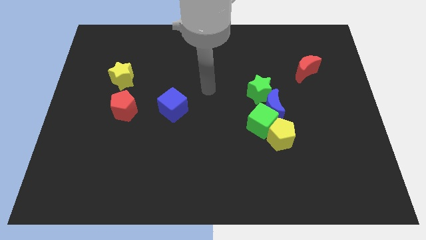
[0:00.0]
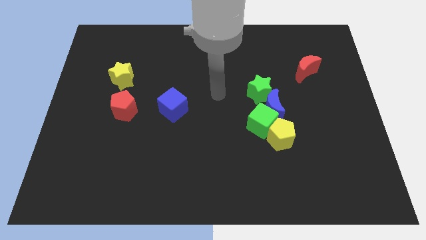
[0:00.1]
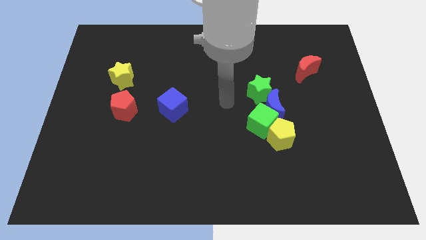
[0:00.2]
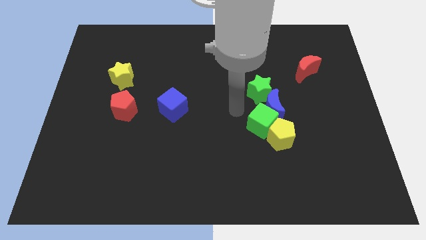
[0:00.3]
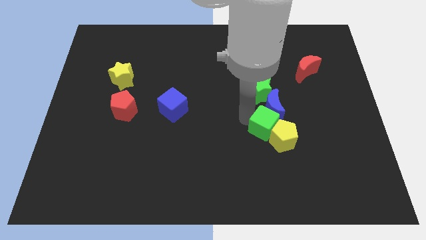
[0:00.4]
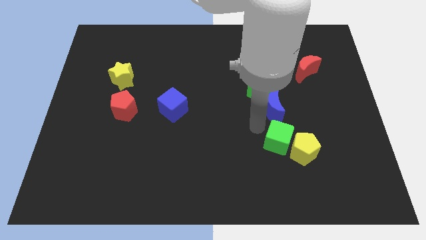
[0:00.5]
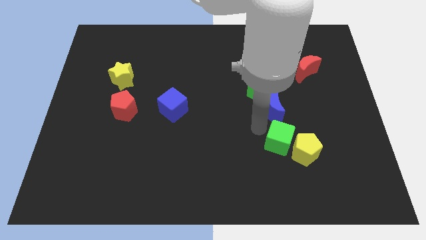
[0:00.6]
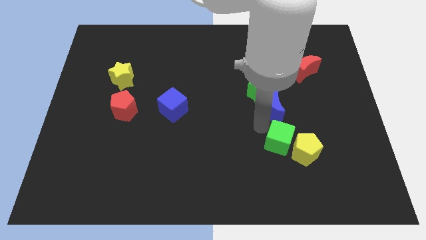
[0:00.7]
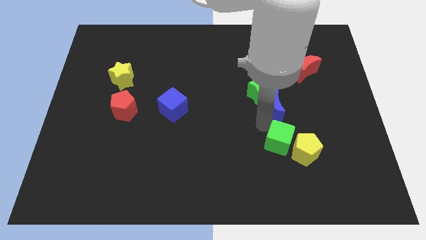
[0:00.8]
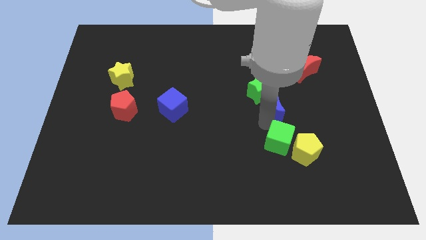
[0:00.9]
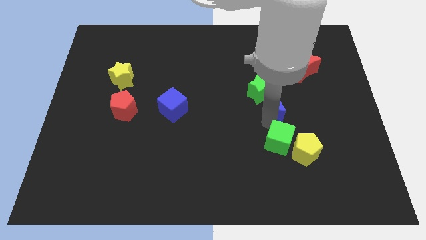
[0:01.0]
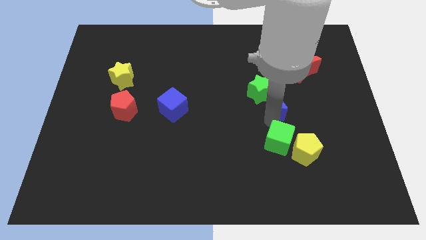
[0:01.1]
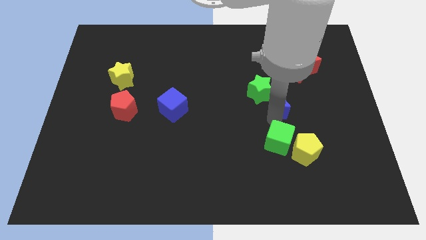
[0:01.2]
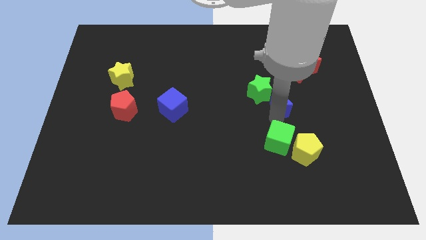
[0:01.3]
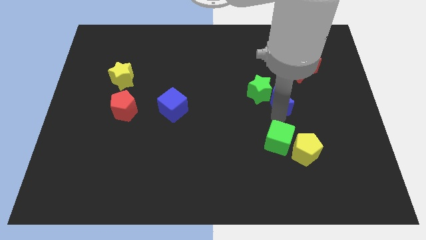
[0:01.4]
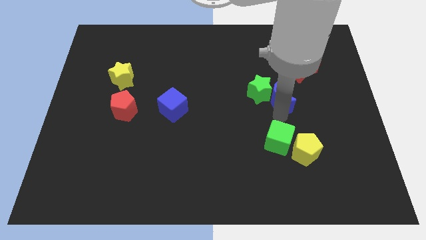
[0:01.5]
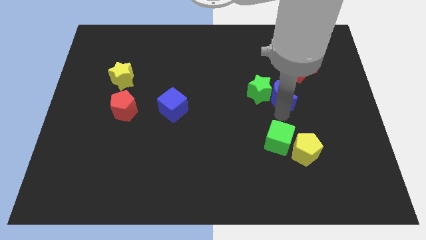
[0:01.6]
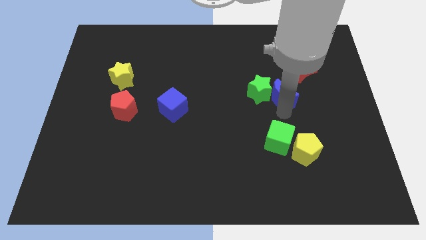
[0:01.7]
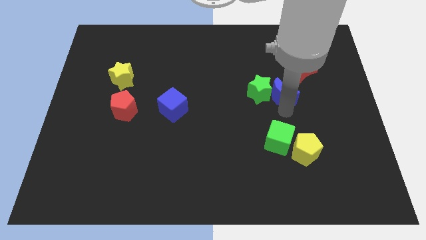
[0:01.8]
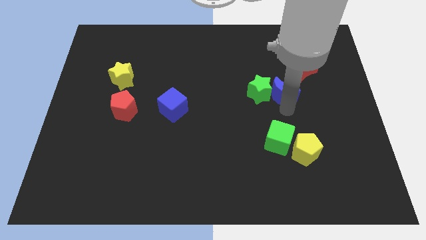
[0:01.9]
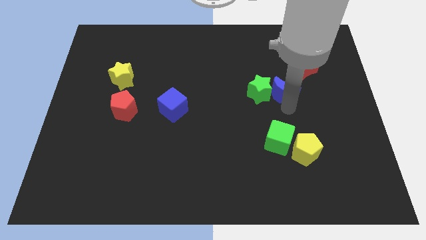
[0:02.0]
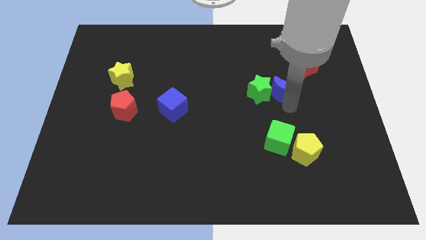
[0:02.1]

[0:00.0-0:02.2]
pull the blue moon apart from the green cube, green star, and yellow pentagon

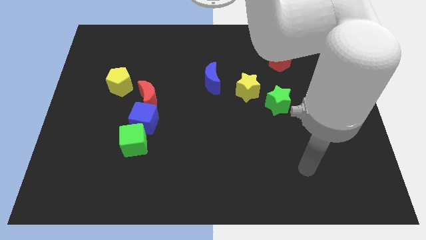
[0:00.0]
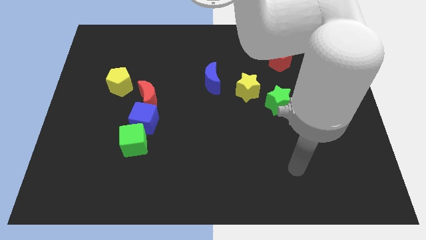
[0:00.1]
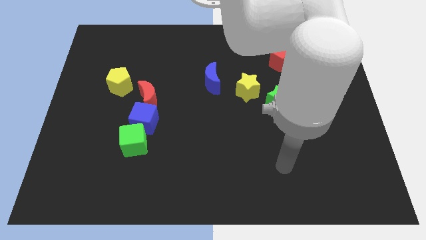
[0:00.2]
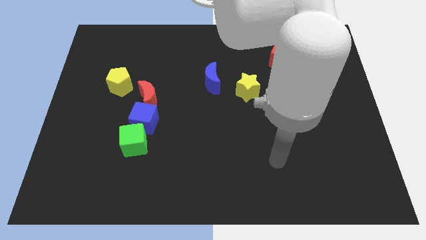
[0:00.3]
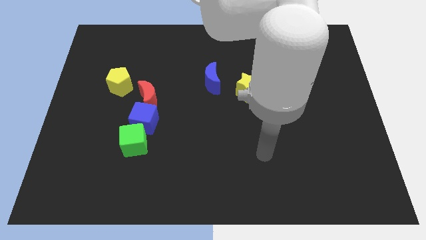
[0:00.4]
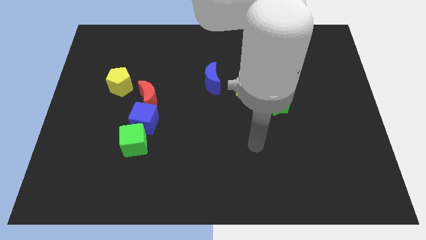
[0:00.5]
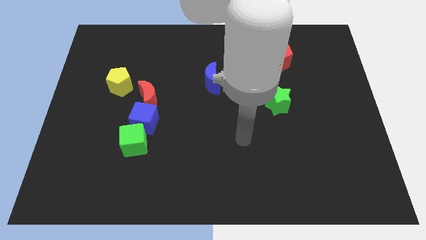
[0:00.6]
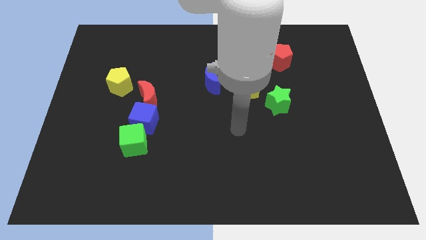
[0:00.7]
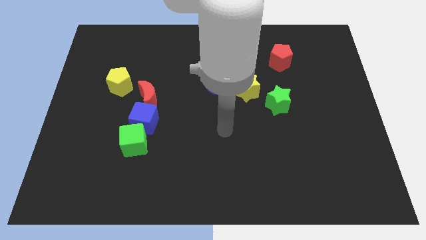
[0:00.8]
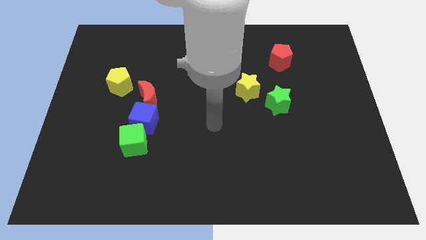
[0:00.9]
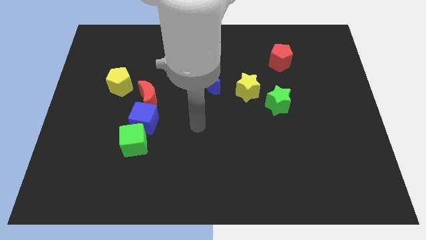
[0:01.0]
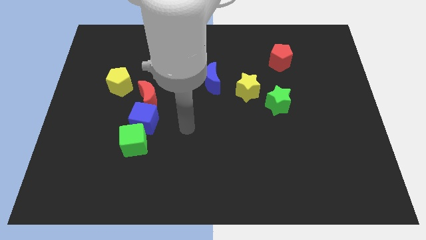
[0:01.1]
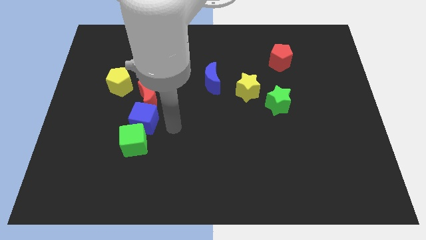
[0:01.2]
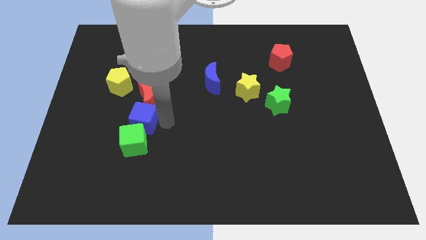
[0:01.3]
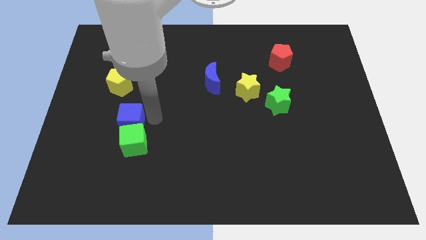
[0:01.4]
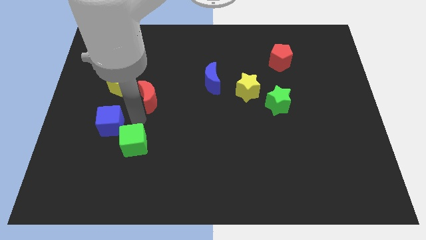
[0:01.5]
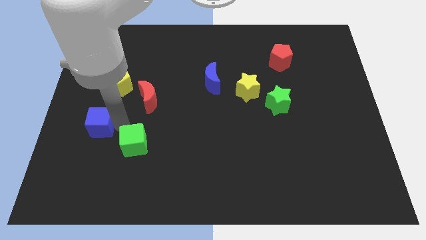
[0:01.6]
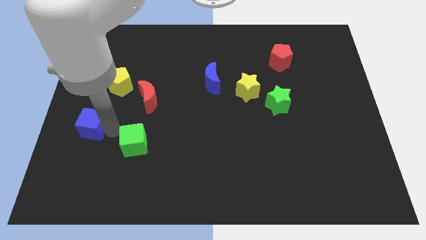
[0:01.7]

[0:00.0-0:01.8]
separate the green cube from the blue cube

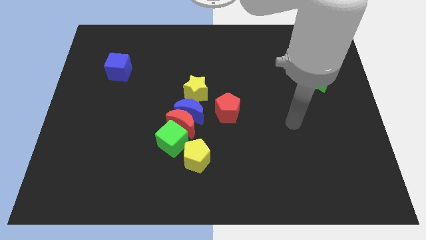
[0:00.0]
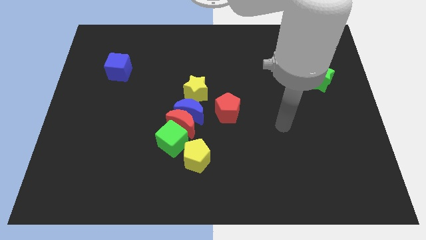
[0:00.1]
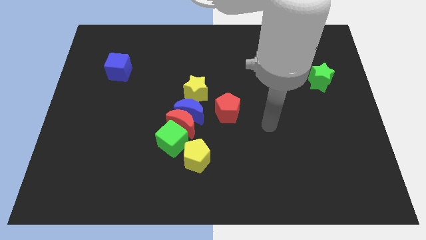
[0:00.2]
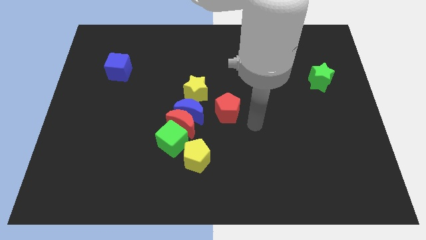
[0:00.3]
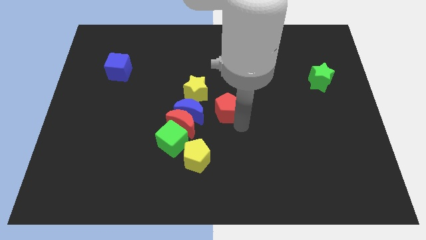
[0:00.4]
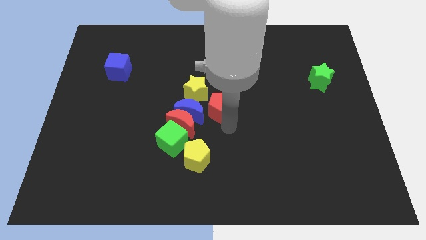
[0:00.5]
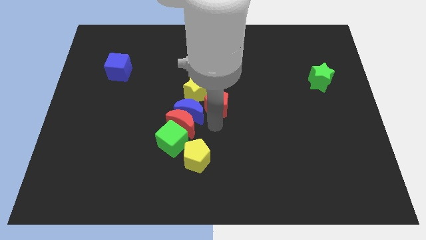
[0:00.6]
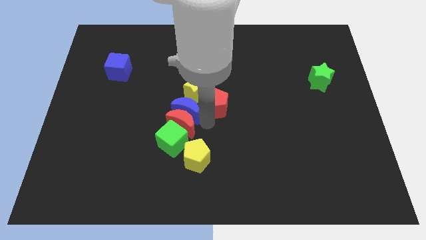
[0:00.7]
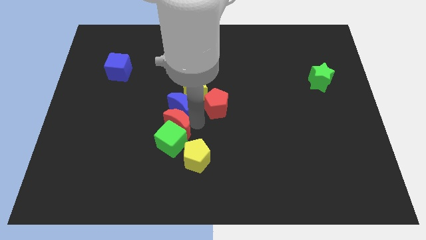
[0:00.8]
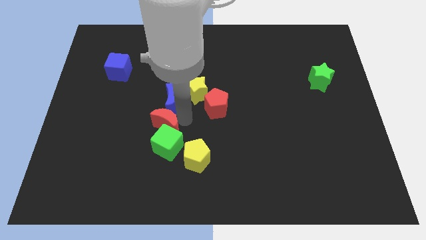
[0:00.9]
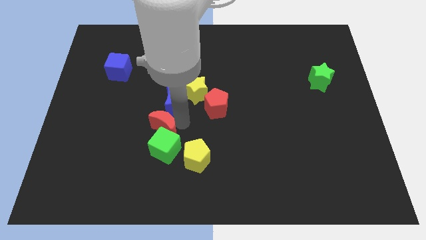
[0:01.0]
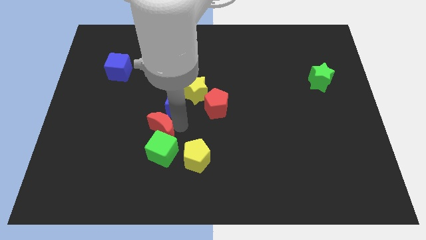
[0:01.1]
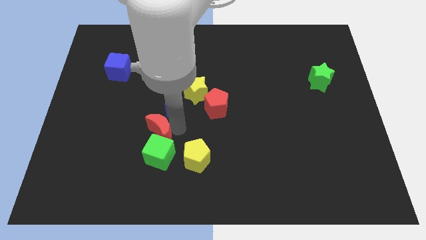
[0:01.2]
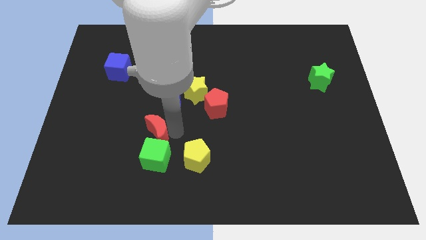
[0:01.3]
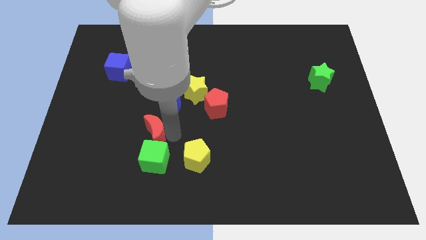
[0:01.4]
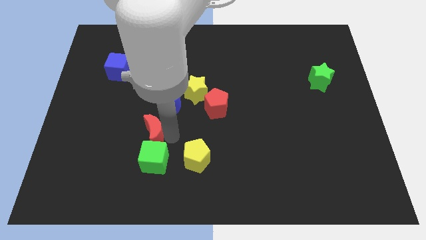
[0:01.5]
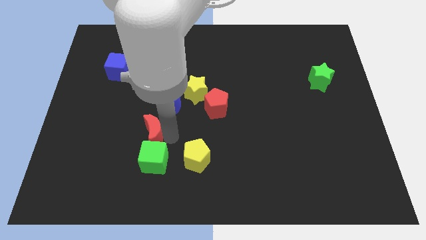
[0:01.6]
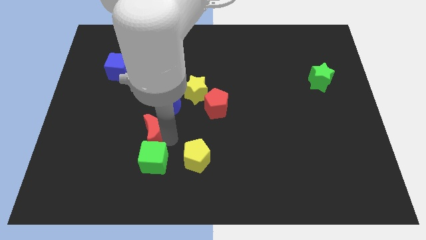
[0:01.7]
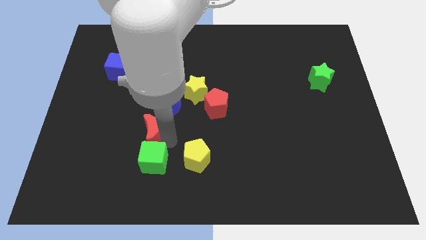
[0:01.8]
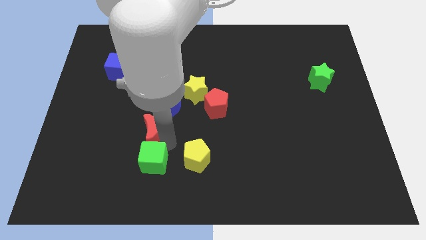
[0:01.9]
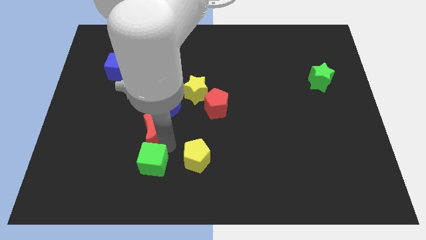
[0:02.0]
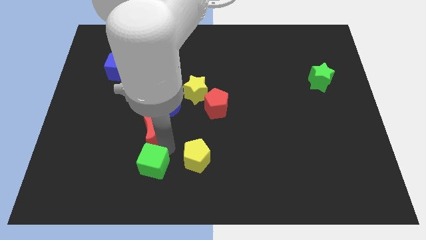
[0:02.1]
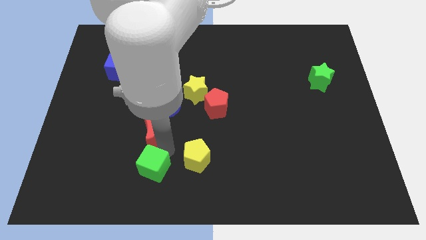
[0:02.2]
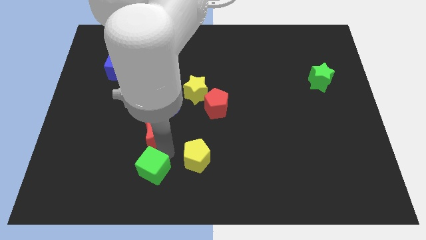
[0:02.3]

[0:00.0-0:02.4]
pull the green cube apart from the group

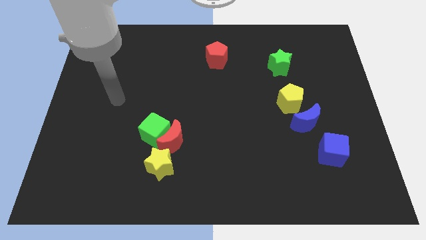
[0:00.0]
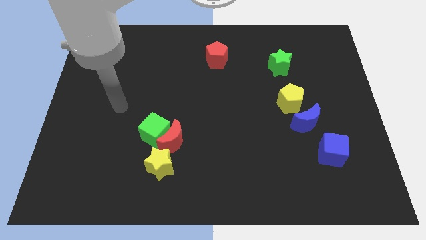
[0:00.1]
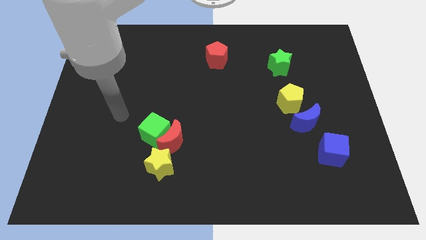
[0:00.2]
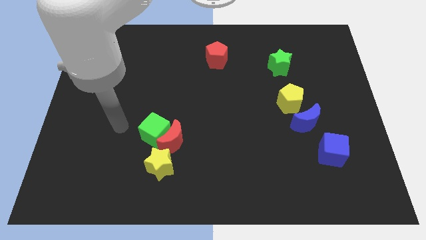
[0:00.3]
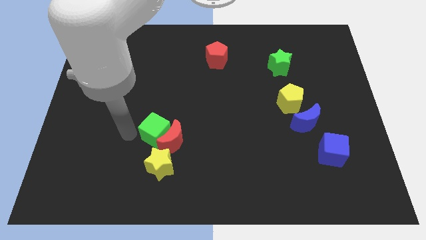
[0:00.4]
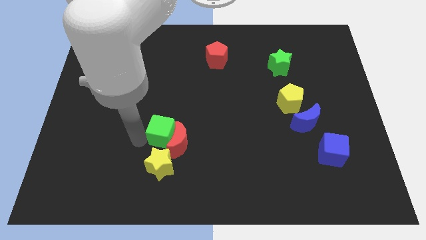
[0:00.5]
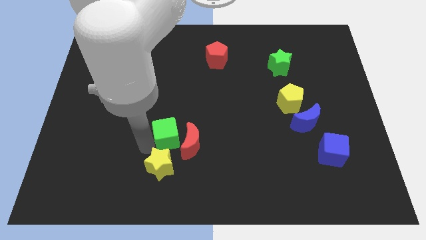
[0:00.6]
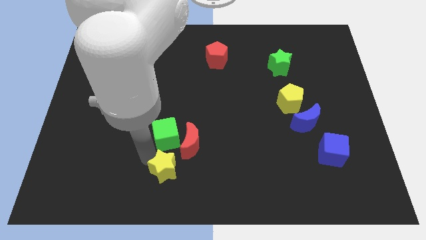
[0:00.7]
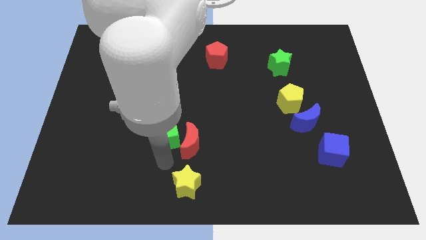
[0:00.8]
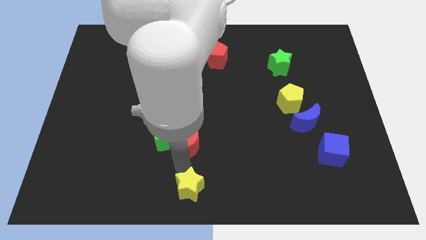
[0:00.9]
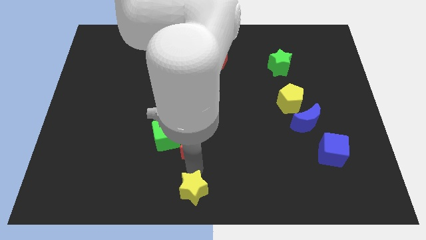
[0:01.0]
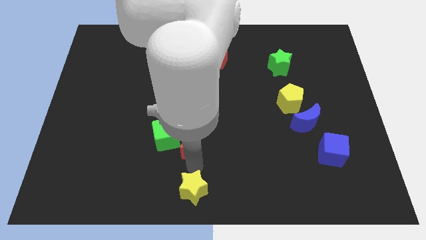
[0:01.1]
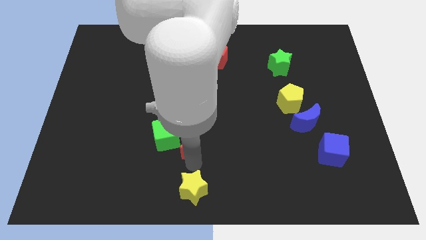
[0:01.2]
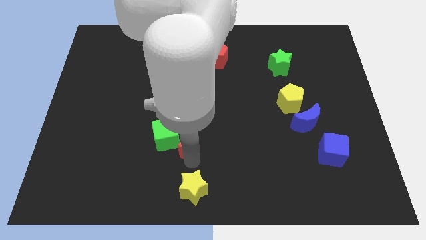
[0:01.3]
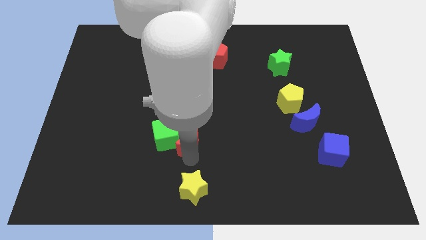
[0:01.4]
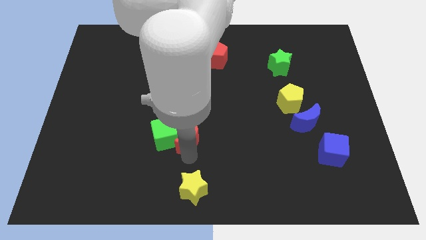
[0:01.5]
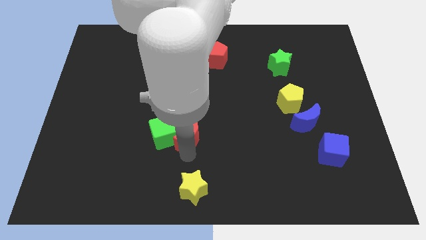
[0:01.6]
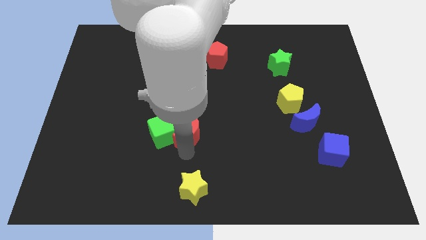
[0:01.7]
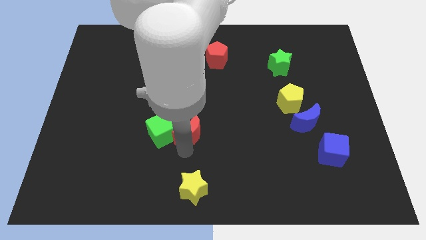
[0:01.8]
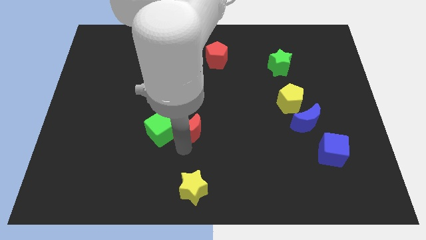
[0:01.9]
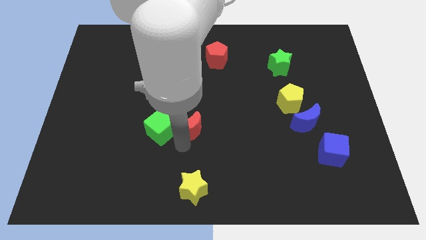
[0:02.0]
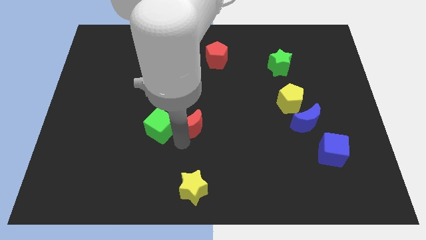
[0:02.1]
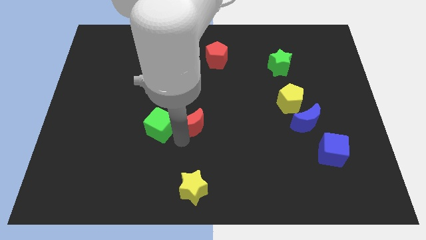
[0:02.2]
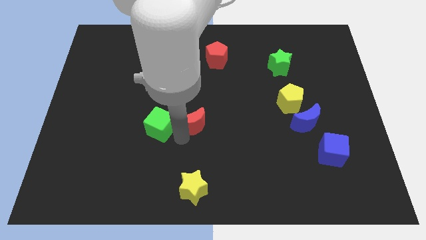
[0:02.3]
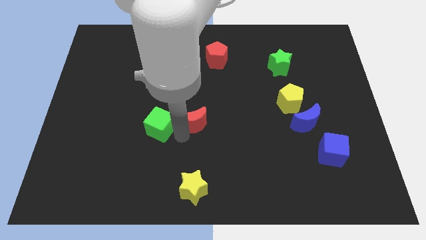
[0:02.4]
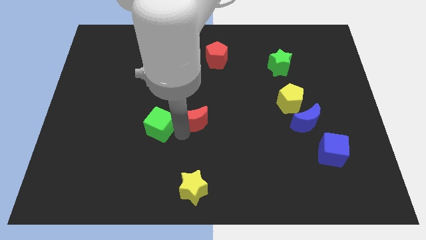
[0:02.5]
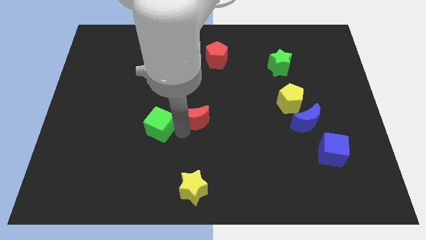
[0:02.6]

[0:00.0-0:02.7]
move the red moon away from the green cube and yellow star

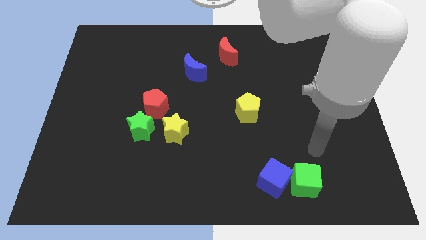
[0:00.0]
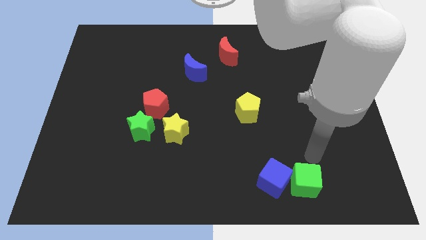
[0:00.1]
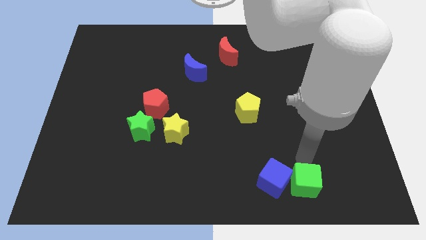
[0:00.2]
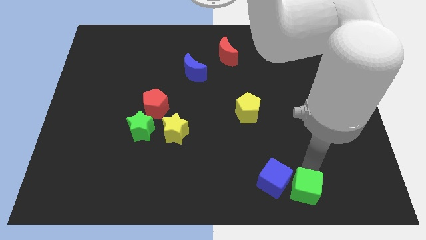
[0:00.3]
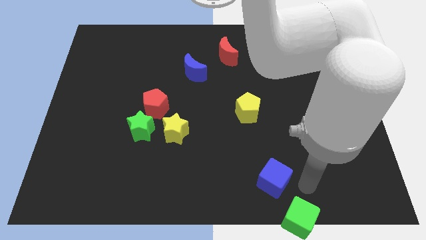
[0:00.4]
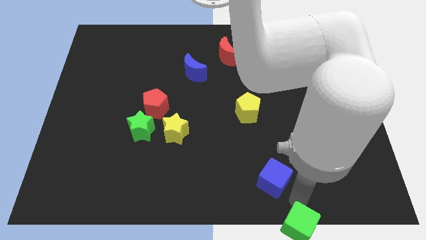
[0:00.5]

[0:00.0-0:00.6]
move the blue cube away from the green cube
